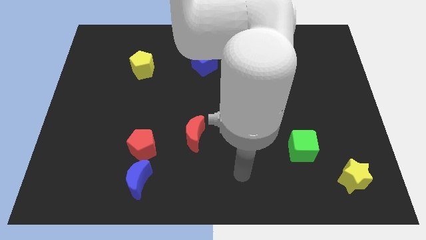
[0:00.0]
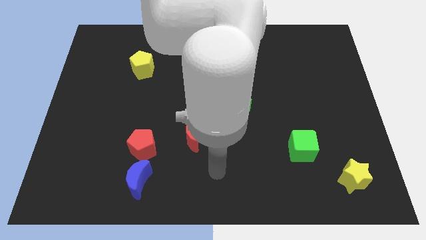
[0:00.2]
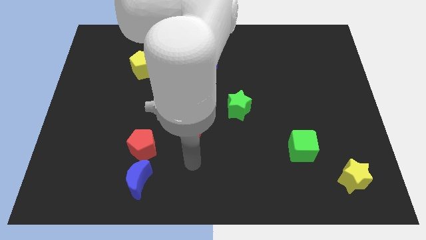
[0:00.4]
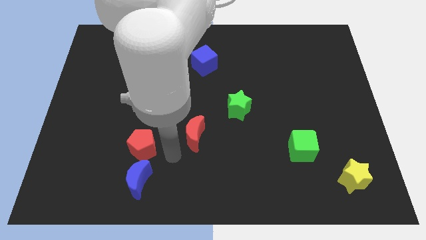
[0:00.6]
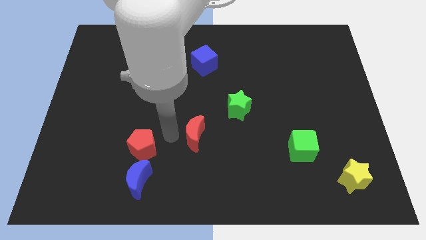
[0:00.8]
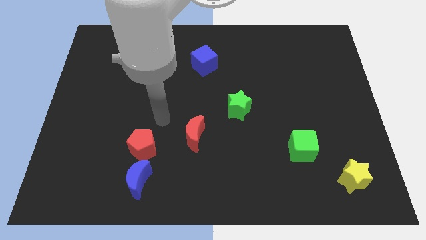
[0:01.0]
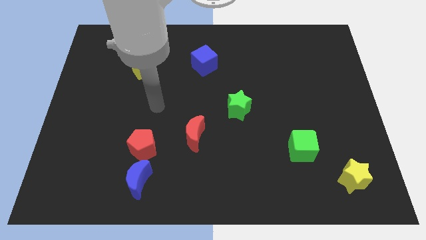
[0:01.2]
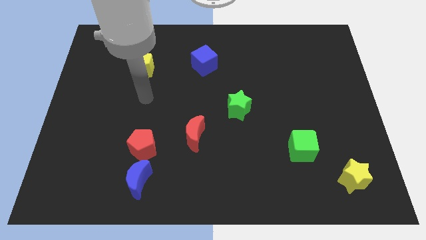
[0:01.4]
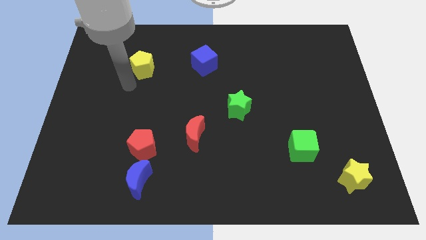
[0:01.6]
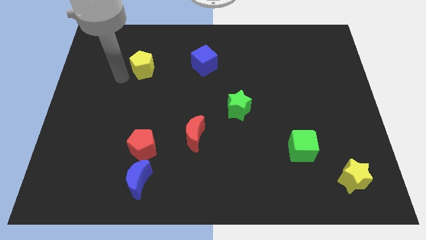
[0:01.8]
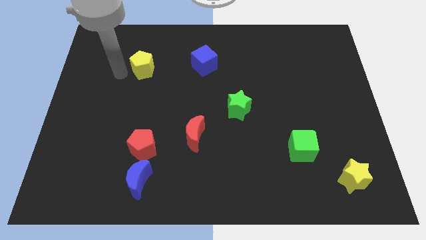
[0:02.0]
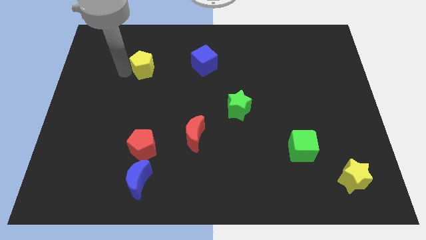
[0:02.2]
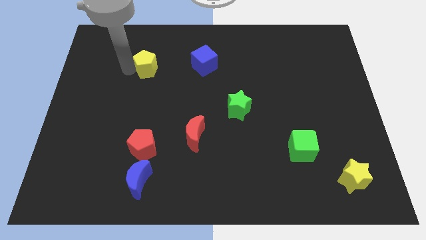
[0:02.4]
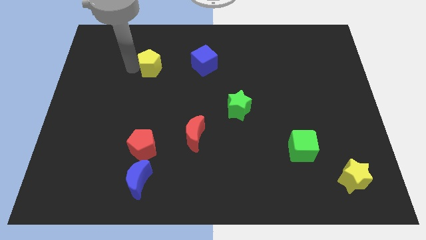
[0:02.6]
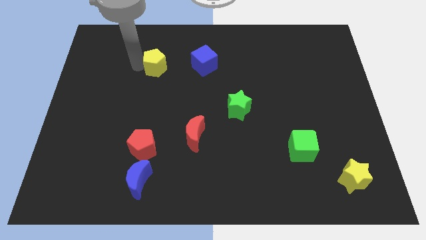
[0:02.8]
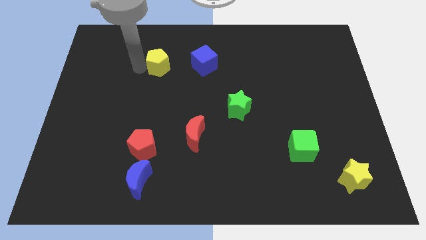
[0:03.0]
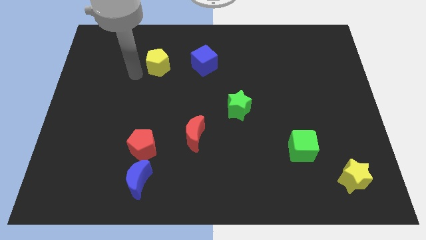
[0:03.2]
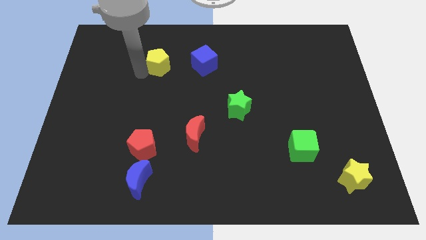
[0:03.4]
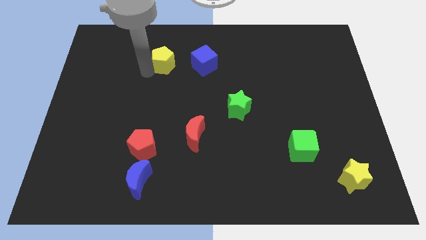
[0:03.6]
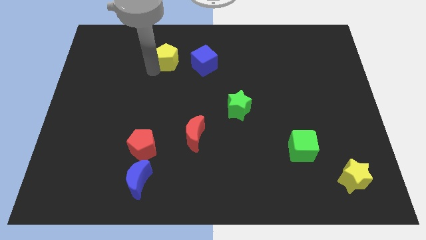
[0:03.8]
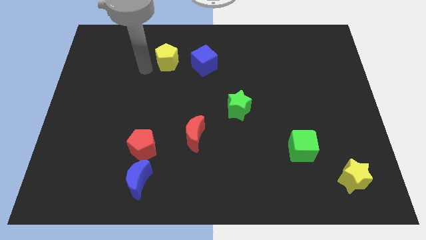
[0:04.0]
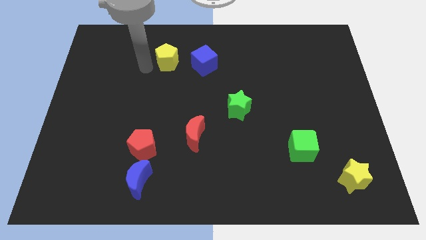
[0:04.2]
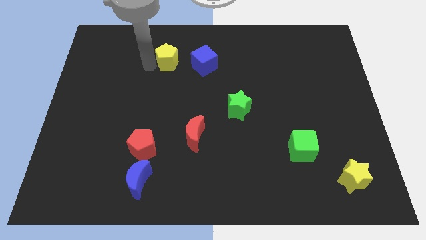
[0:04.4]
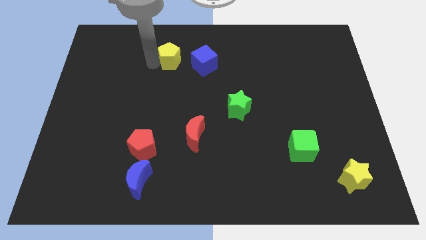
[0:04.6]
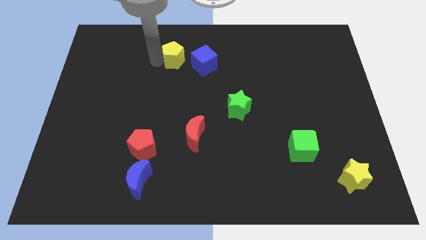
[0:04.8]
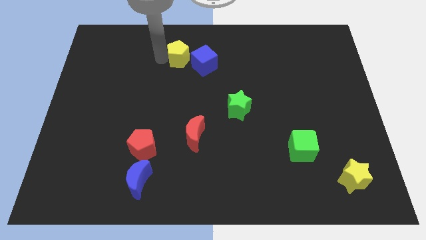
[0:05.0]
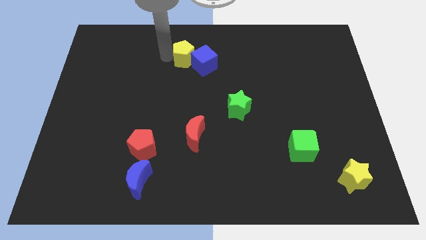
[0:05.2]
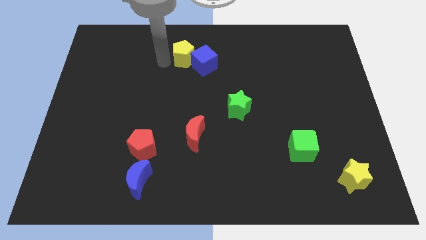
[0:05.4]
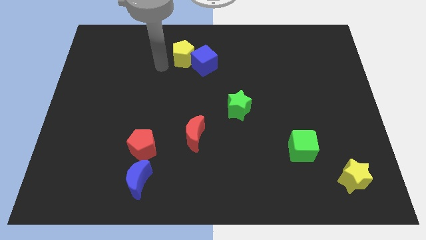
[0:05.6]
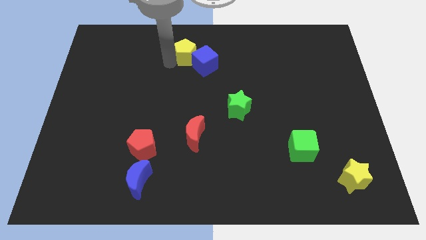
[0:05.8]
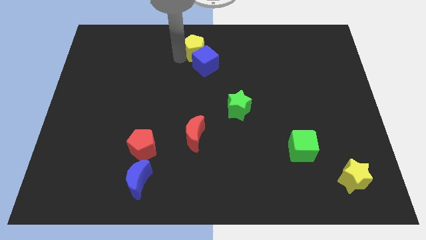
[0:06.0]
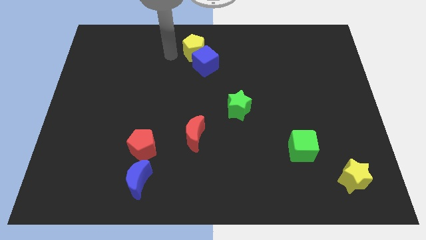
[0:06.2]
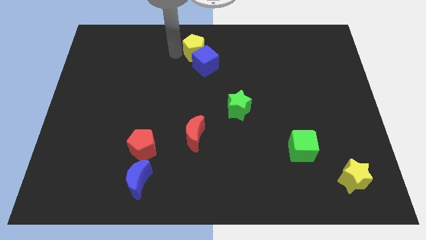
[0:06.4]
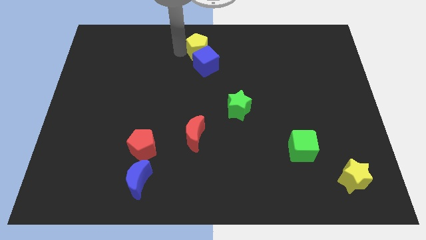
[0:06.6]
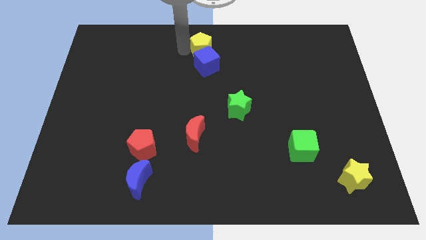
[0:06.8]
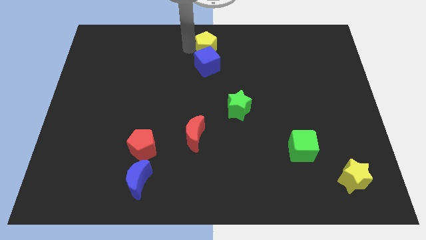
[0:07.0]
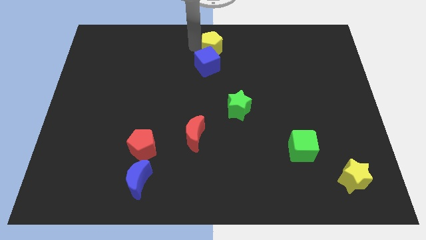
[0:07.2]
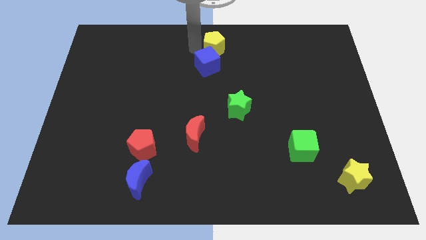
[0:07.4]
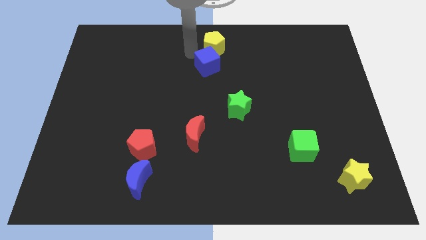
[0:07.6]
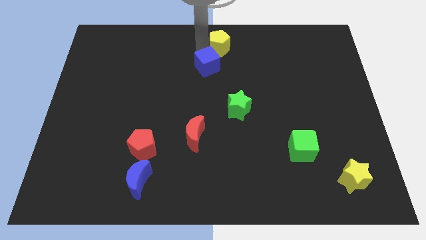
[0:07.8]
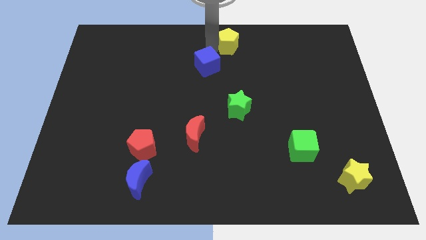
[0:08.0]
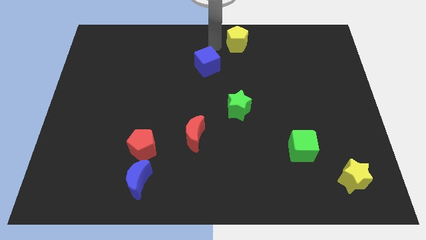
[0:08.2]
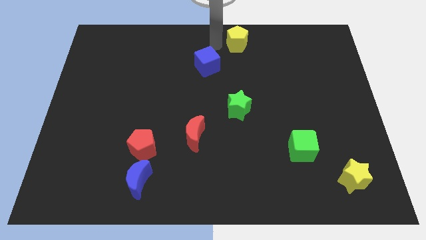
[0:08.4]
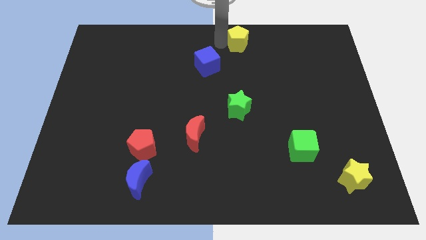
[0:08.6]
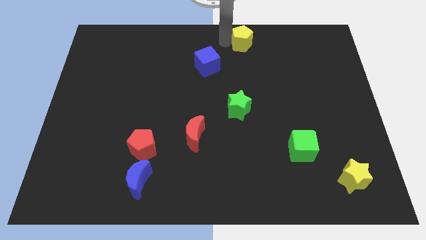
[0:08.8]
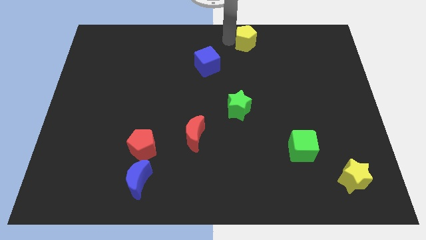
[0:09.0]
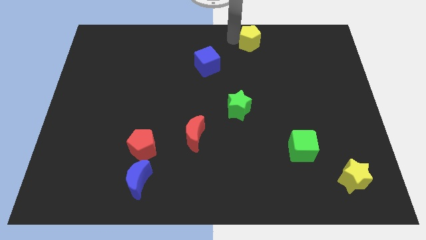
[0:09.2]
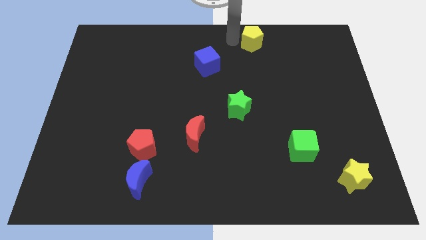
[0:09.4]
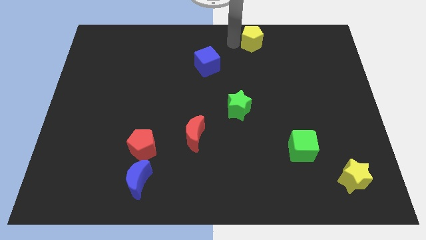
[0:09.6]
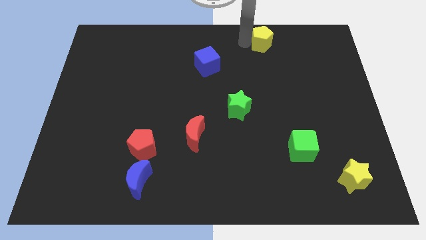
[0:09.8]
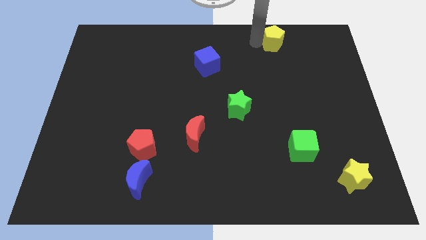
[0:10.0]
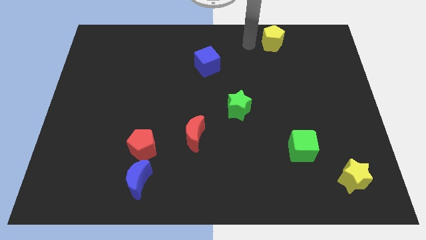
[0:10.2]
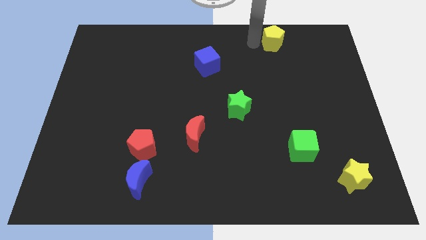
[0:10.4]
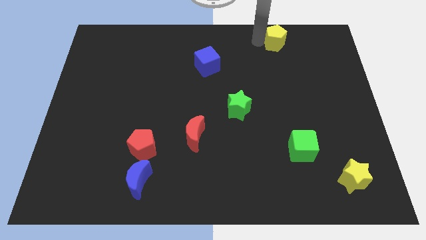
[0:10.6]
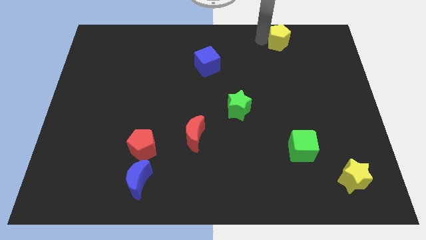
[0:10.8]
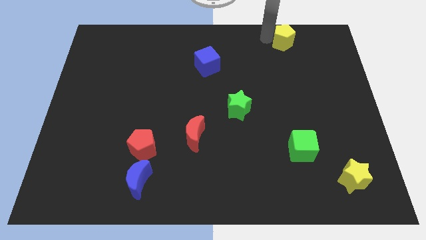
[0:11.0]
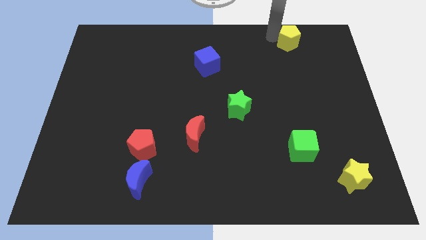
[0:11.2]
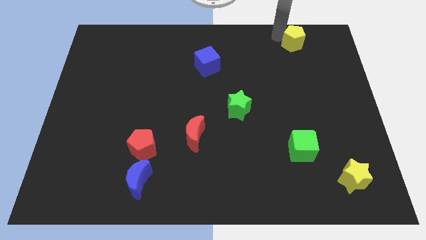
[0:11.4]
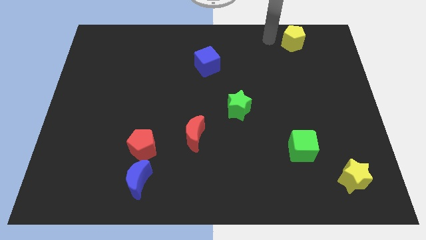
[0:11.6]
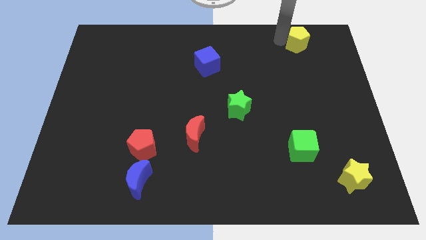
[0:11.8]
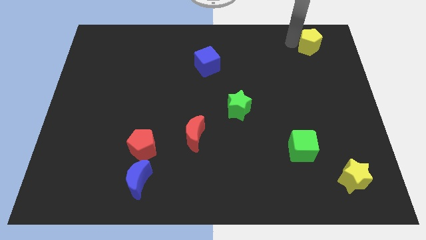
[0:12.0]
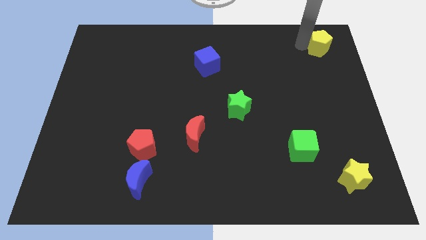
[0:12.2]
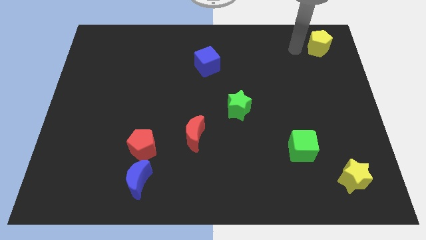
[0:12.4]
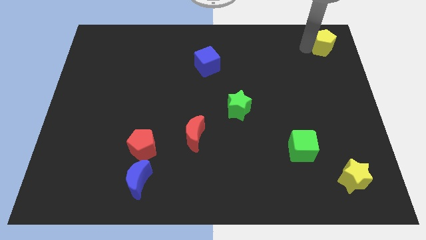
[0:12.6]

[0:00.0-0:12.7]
slide the yellow pentagon to the upper right corner

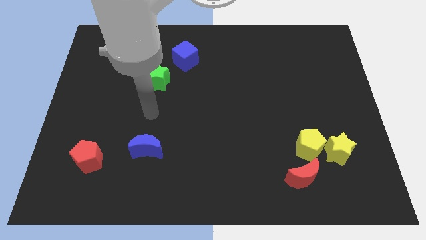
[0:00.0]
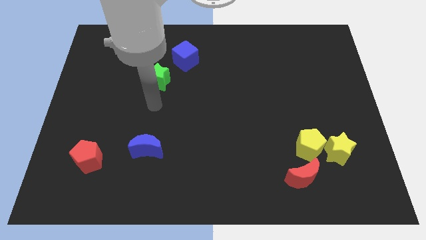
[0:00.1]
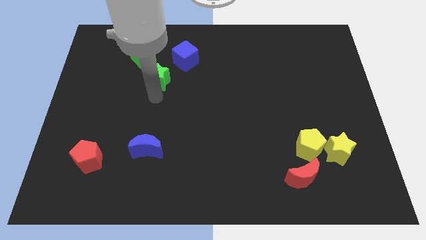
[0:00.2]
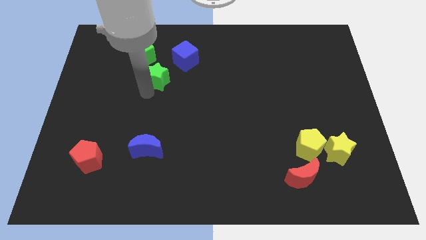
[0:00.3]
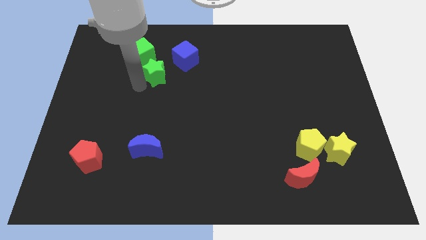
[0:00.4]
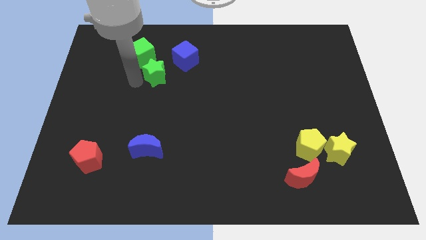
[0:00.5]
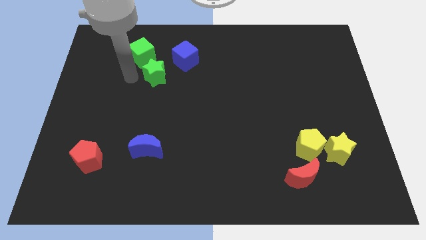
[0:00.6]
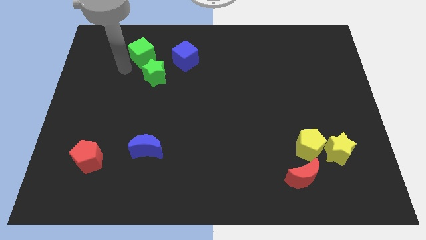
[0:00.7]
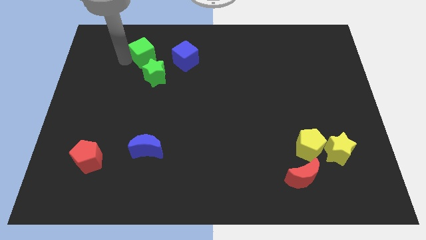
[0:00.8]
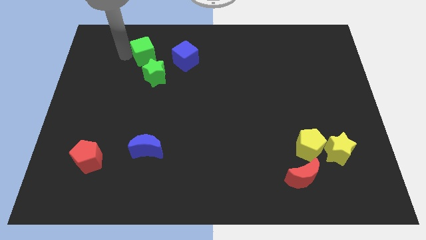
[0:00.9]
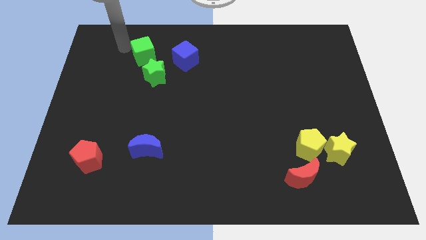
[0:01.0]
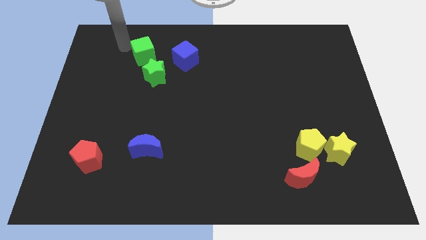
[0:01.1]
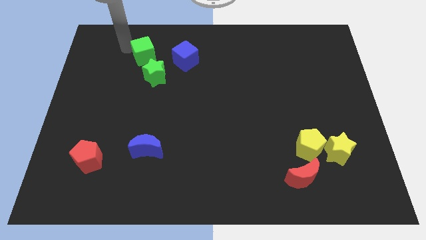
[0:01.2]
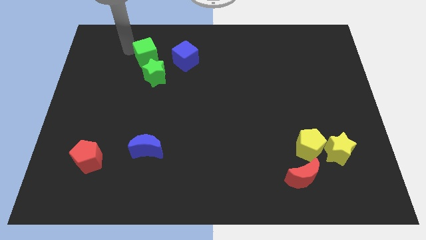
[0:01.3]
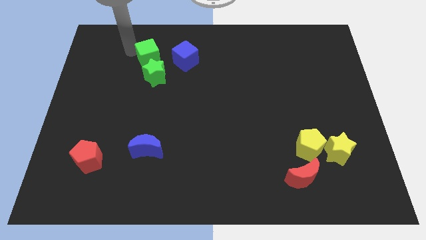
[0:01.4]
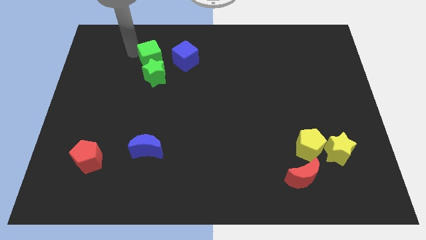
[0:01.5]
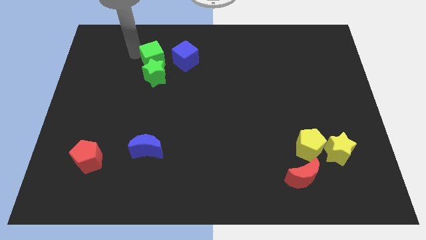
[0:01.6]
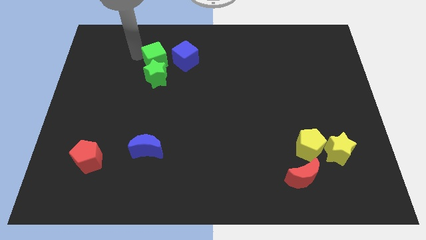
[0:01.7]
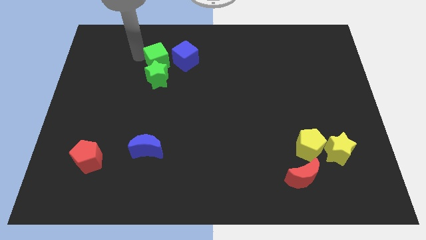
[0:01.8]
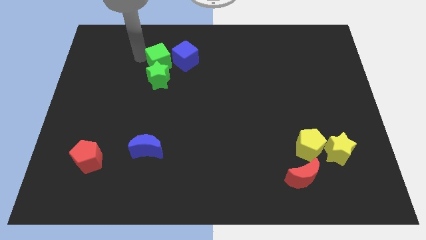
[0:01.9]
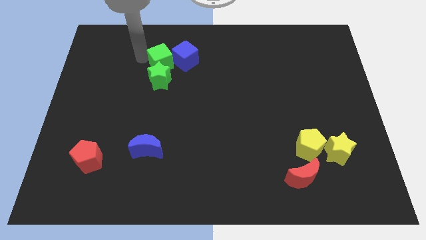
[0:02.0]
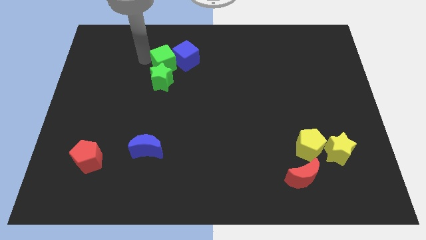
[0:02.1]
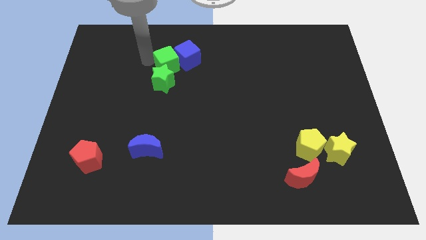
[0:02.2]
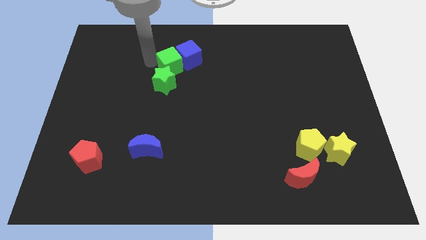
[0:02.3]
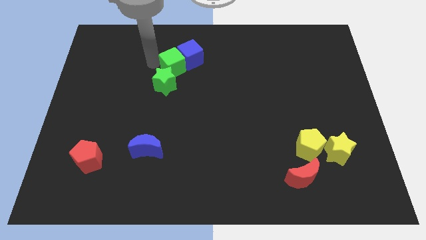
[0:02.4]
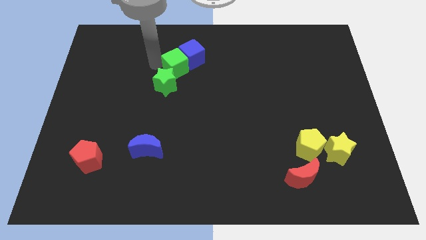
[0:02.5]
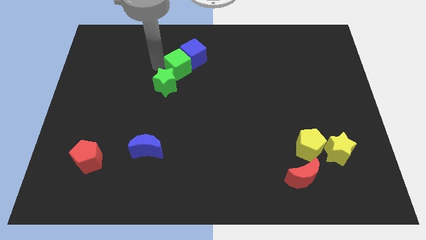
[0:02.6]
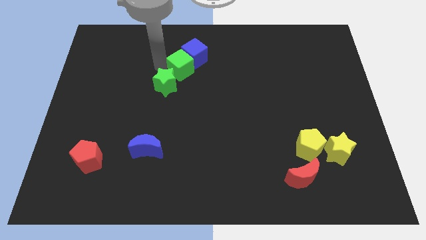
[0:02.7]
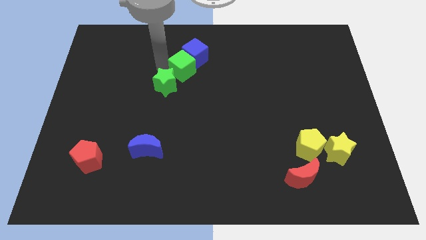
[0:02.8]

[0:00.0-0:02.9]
move the green cube to the center of the board
